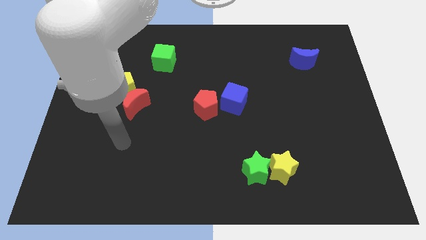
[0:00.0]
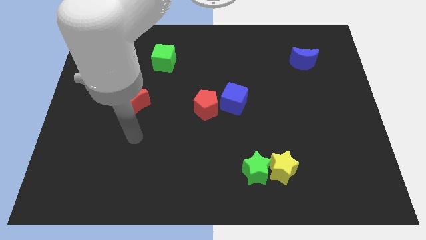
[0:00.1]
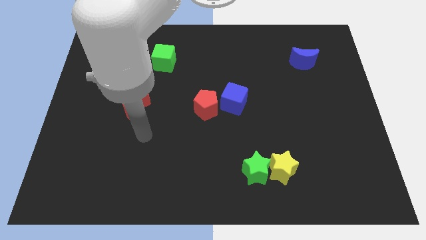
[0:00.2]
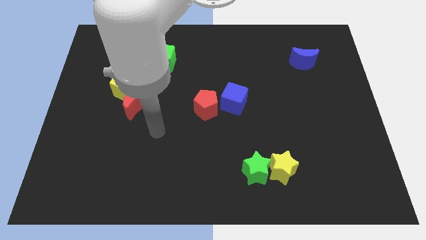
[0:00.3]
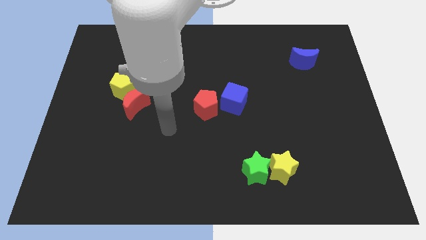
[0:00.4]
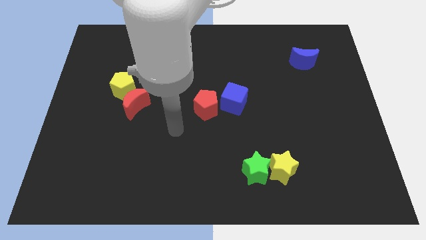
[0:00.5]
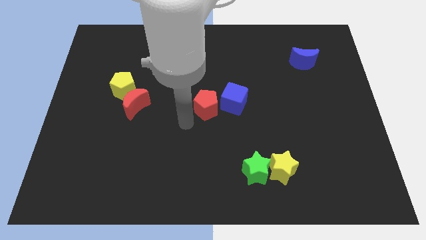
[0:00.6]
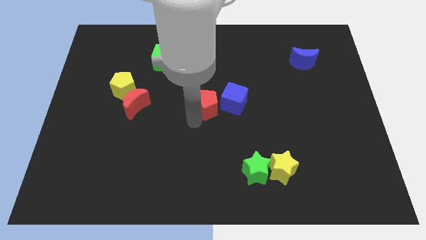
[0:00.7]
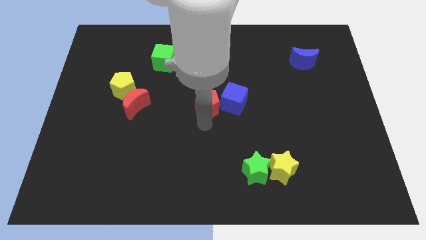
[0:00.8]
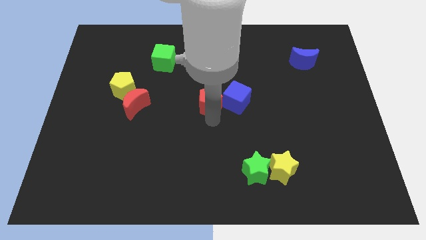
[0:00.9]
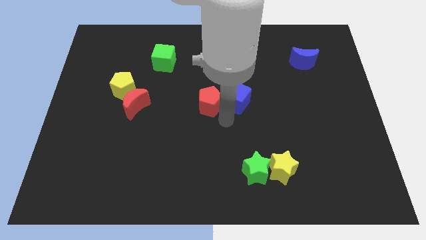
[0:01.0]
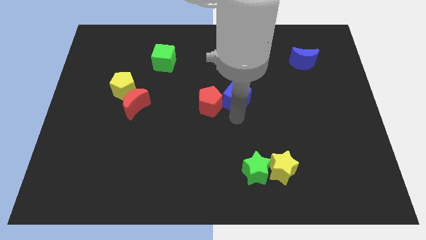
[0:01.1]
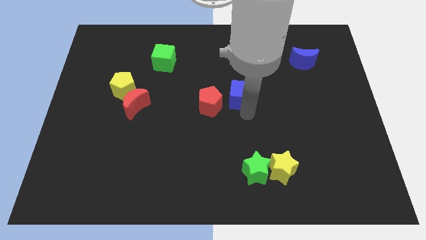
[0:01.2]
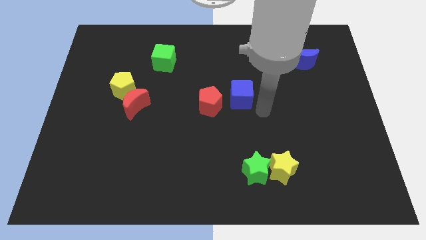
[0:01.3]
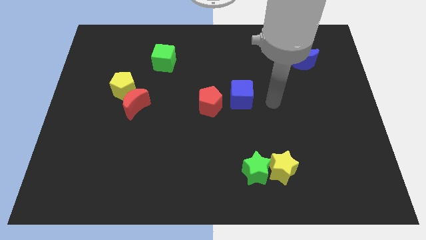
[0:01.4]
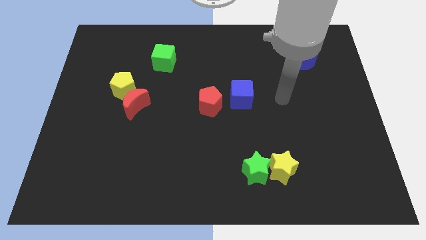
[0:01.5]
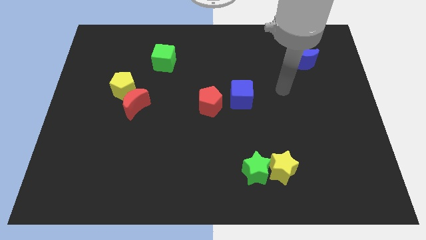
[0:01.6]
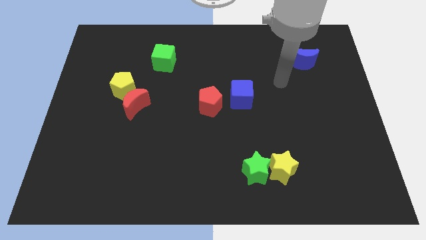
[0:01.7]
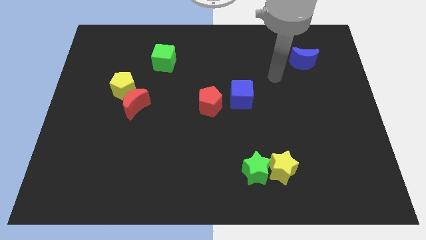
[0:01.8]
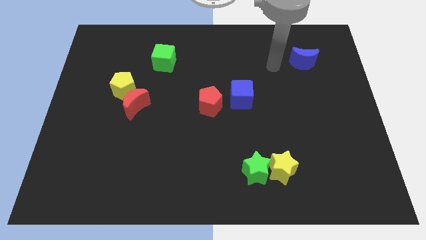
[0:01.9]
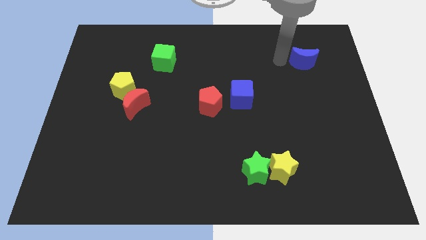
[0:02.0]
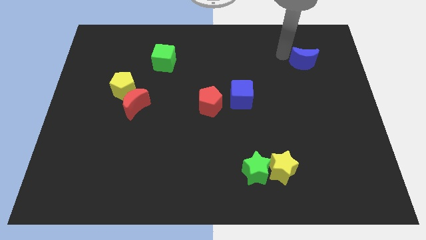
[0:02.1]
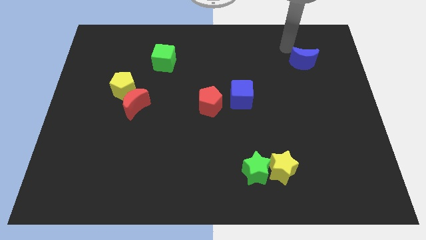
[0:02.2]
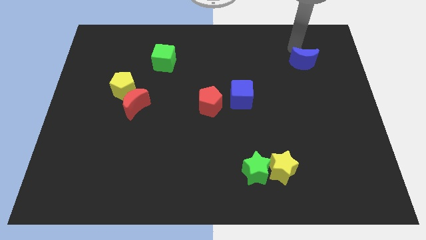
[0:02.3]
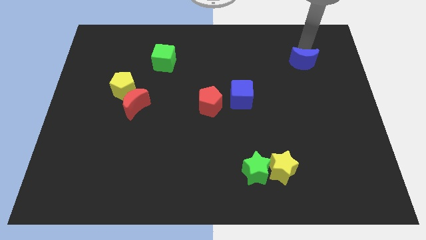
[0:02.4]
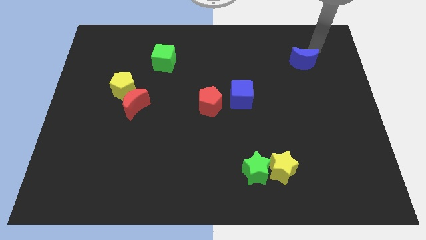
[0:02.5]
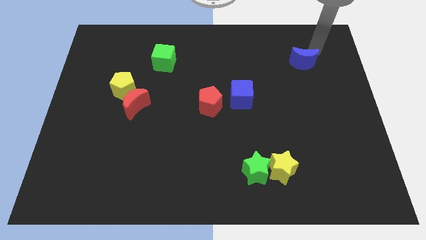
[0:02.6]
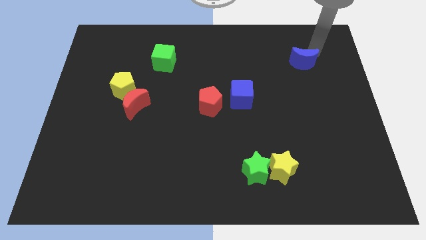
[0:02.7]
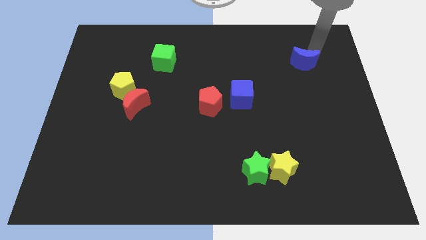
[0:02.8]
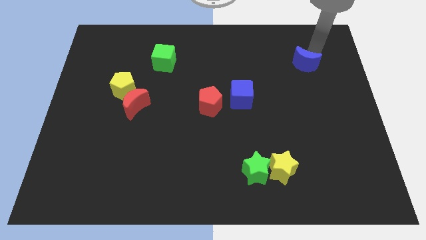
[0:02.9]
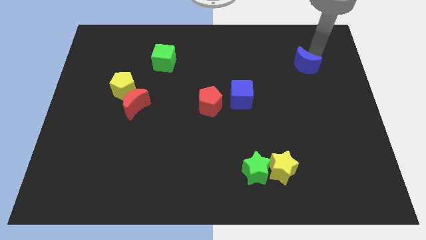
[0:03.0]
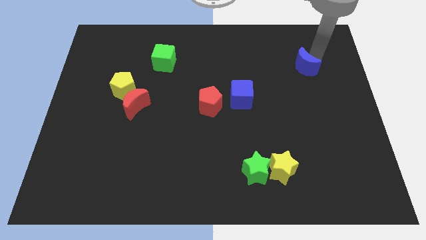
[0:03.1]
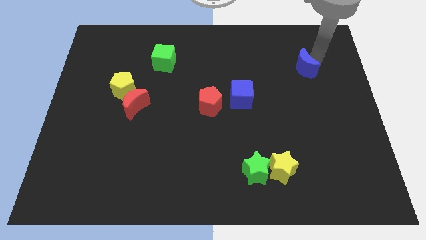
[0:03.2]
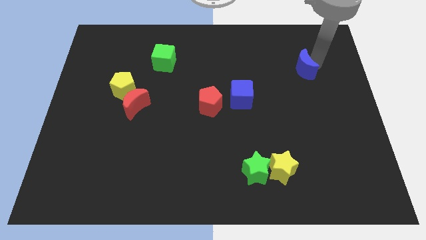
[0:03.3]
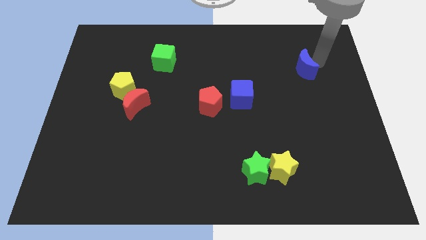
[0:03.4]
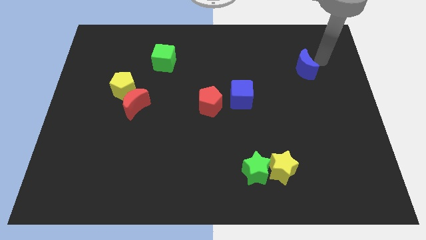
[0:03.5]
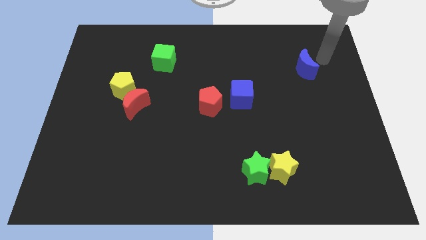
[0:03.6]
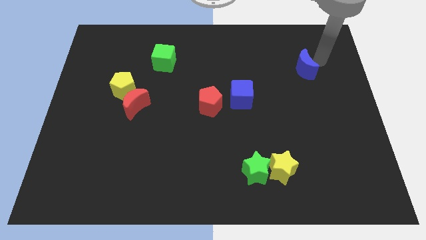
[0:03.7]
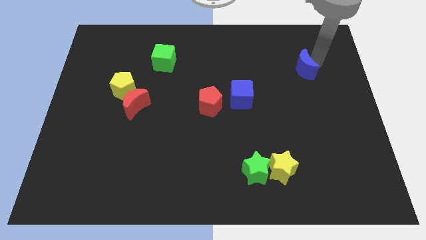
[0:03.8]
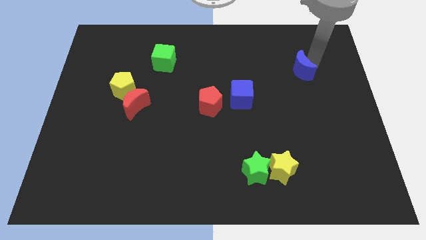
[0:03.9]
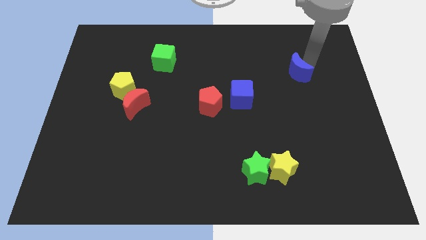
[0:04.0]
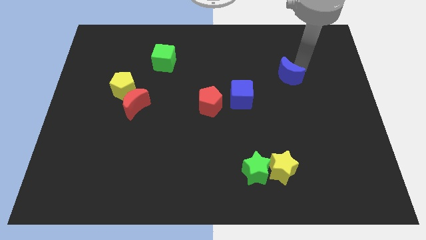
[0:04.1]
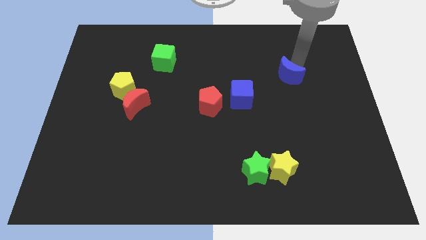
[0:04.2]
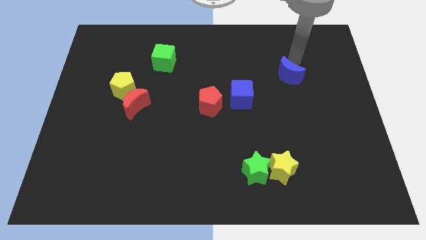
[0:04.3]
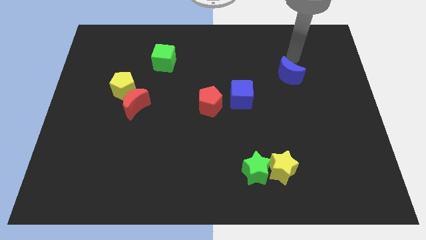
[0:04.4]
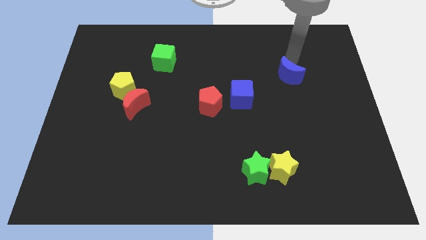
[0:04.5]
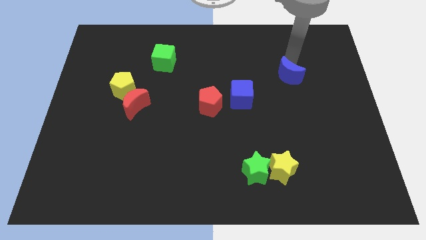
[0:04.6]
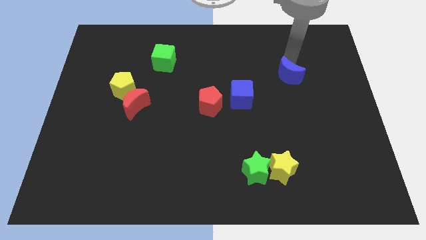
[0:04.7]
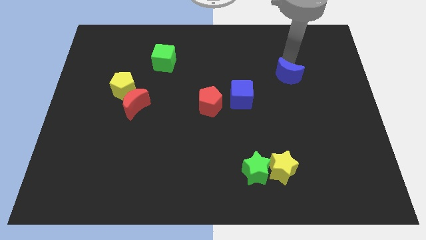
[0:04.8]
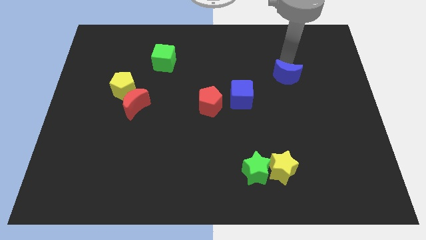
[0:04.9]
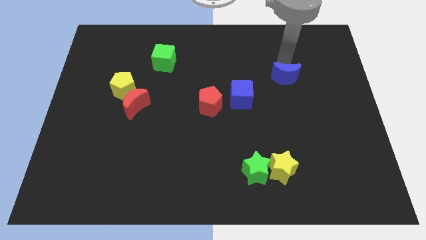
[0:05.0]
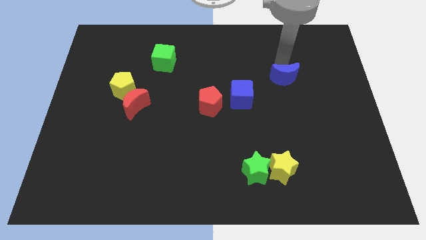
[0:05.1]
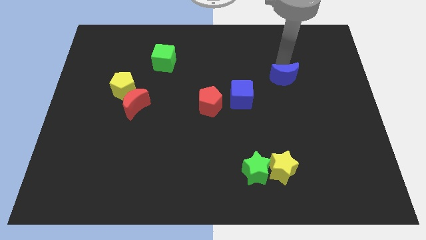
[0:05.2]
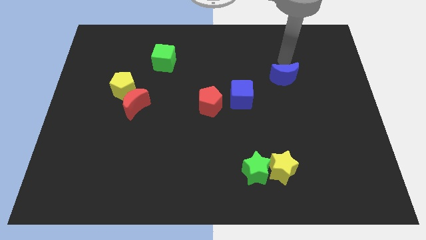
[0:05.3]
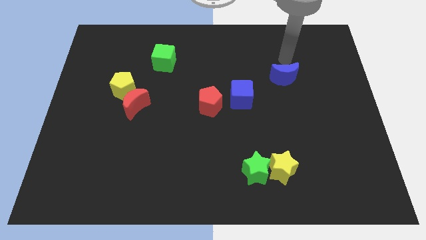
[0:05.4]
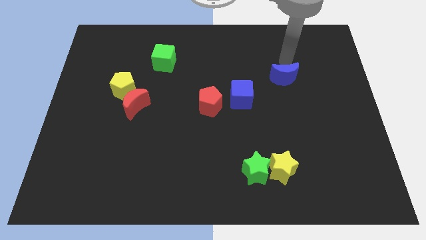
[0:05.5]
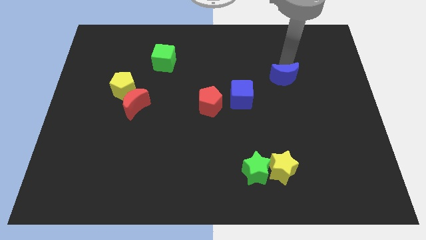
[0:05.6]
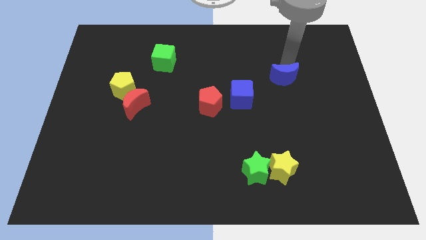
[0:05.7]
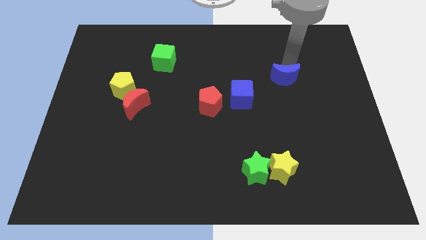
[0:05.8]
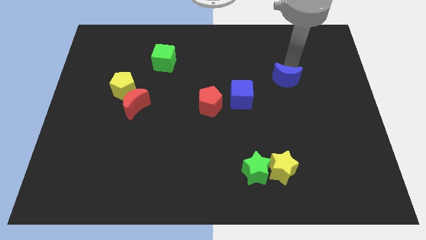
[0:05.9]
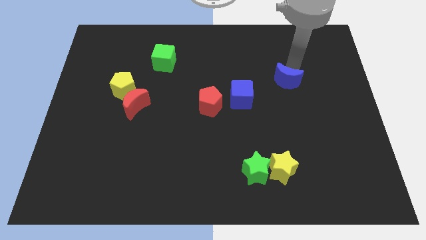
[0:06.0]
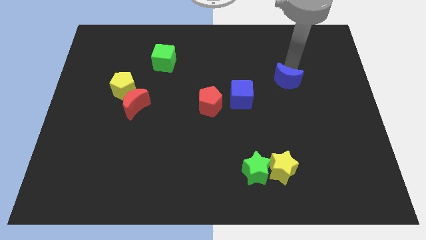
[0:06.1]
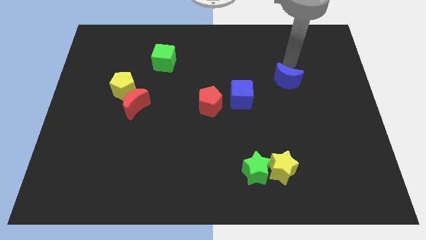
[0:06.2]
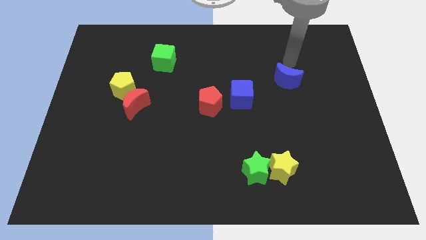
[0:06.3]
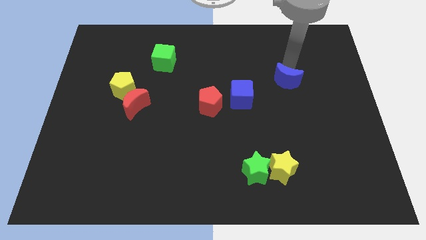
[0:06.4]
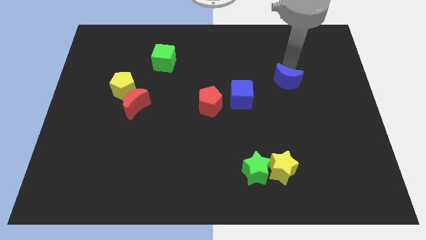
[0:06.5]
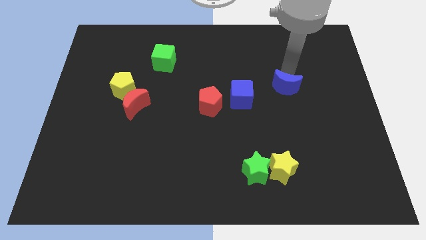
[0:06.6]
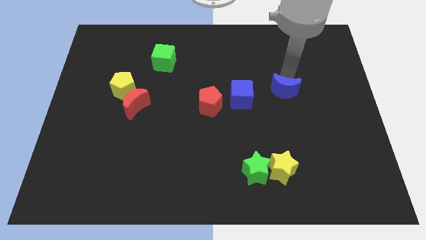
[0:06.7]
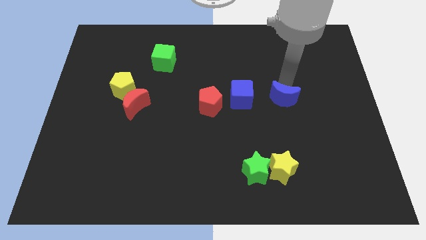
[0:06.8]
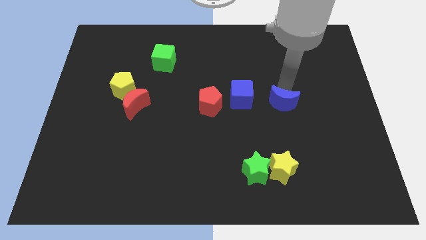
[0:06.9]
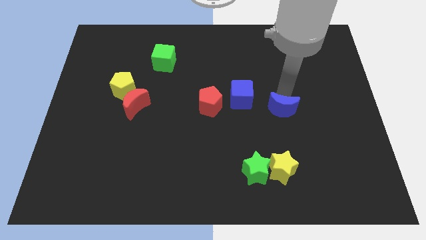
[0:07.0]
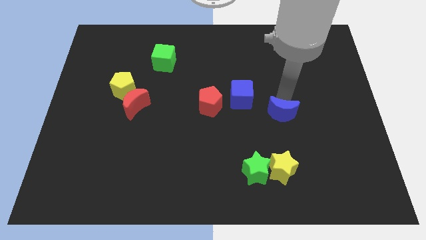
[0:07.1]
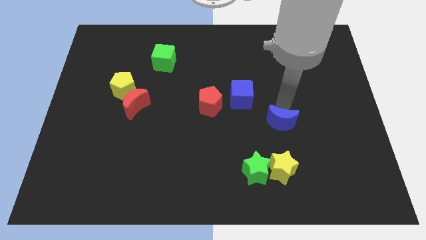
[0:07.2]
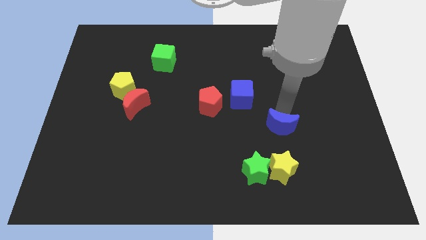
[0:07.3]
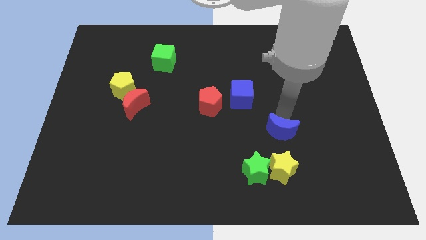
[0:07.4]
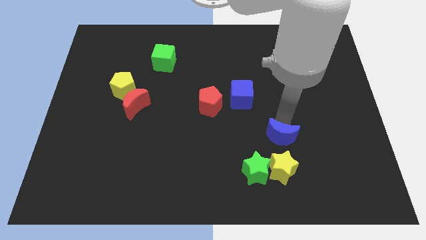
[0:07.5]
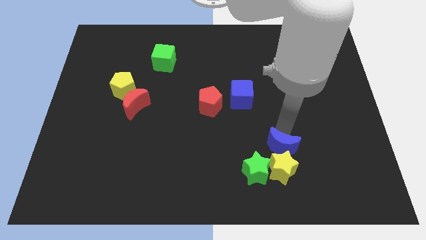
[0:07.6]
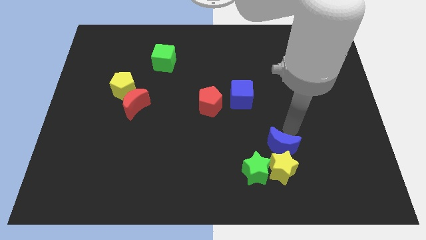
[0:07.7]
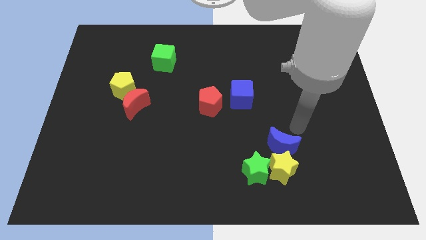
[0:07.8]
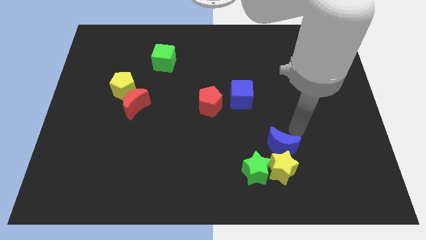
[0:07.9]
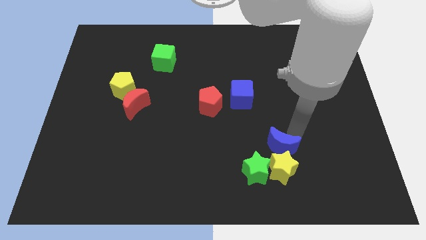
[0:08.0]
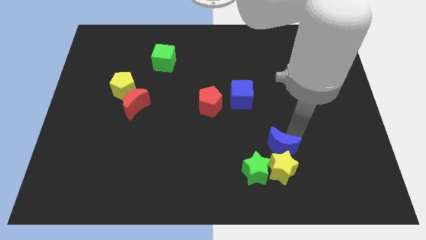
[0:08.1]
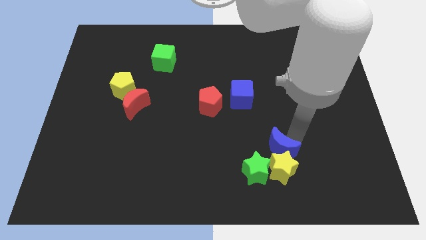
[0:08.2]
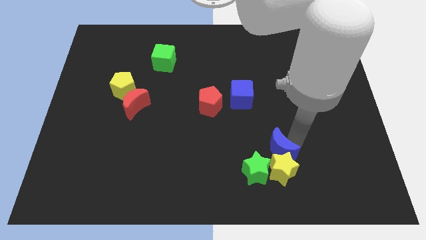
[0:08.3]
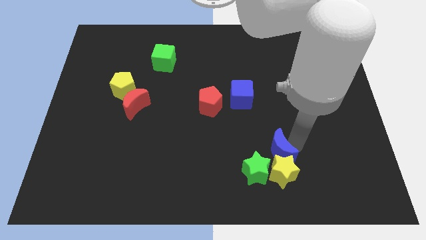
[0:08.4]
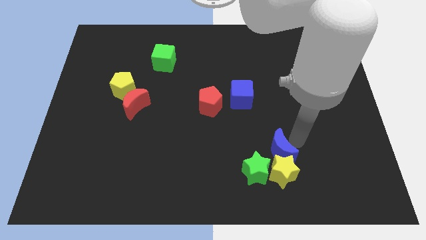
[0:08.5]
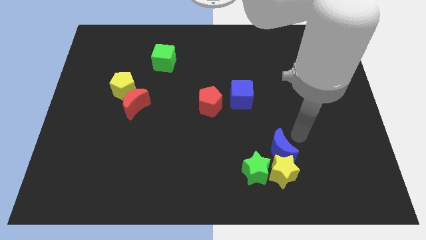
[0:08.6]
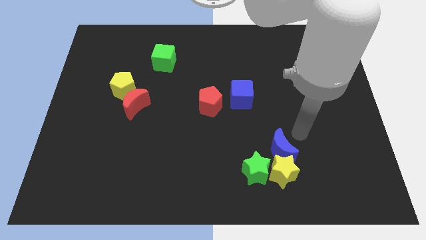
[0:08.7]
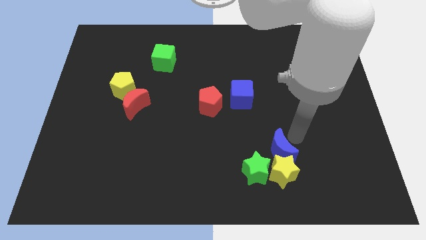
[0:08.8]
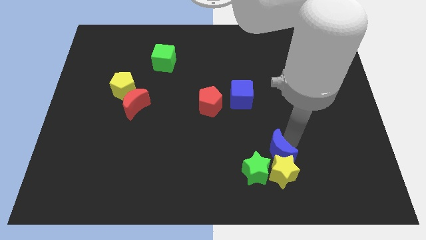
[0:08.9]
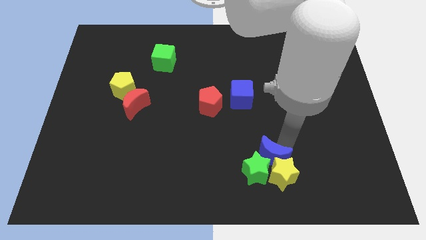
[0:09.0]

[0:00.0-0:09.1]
put the blue moon to the green star
